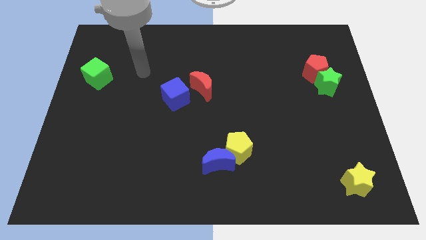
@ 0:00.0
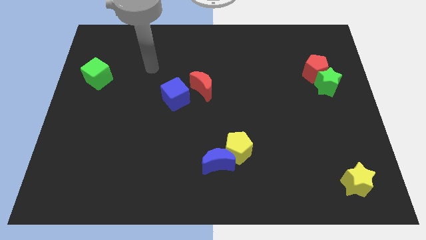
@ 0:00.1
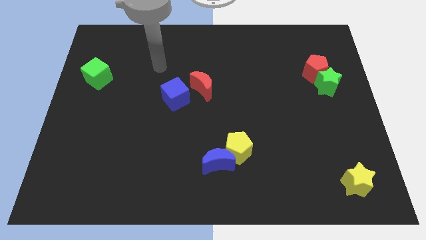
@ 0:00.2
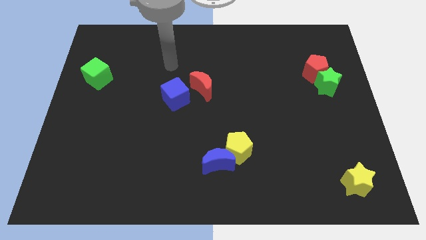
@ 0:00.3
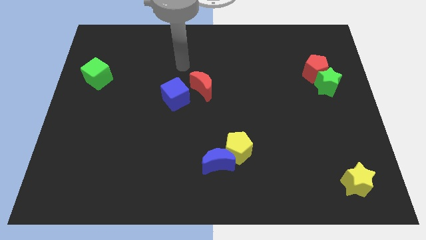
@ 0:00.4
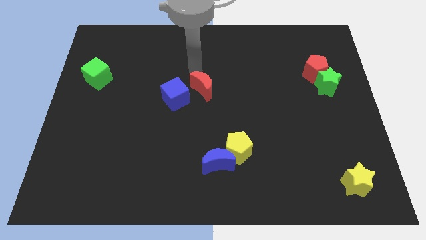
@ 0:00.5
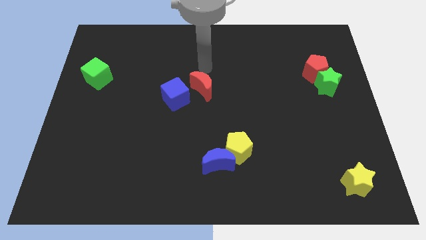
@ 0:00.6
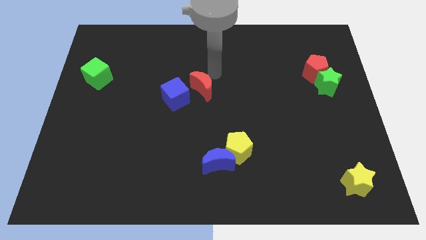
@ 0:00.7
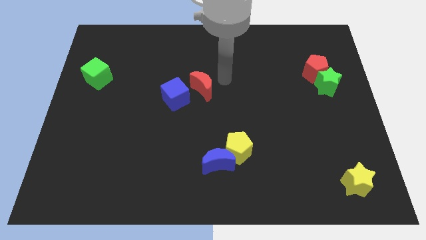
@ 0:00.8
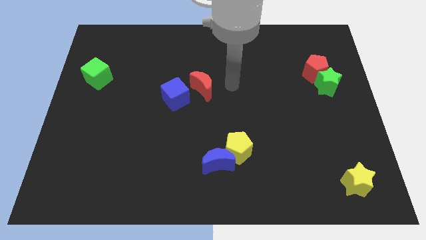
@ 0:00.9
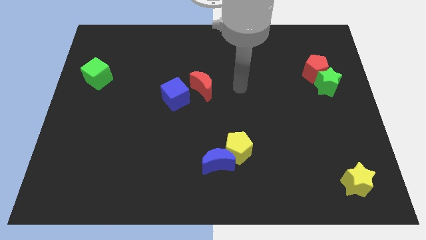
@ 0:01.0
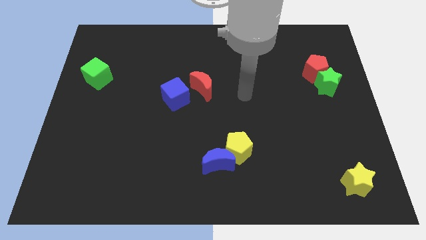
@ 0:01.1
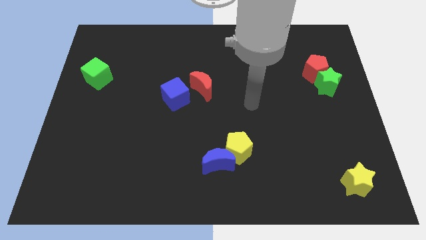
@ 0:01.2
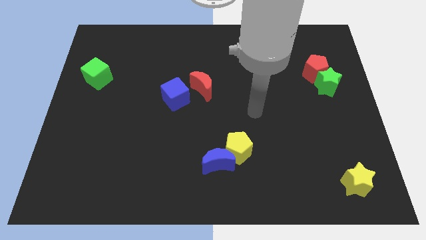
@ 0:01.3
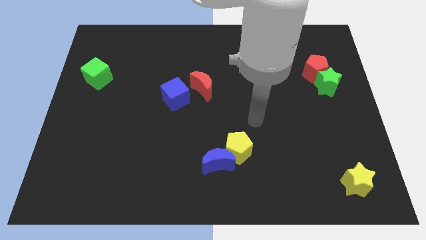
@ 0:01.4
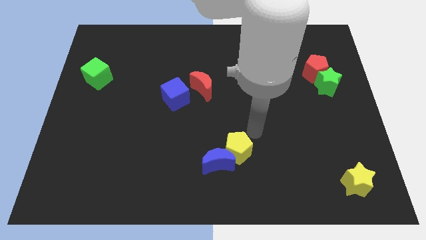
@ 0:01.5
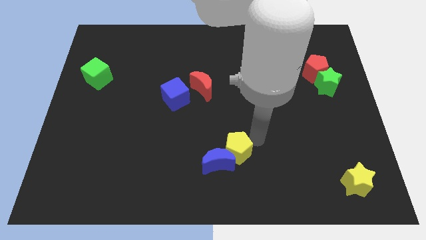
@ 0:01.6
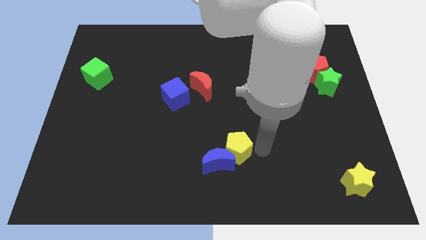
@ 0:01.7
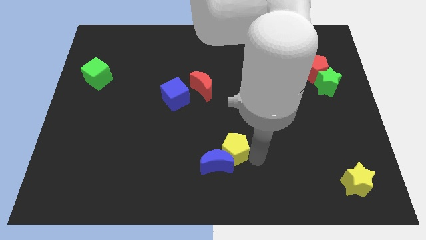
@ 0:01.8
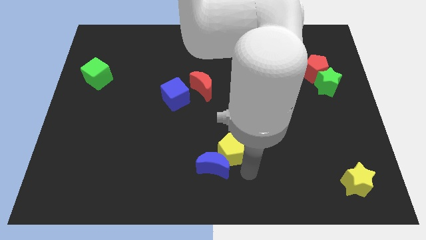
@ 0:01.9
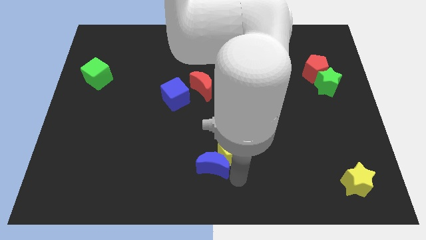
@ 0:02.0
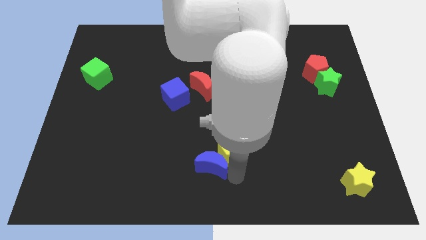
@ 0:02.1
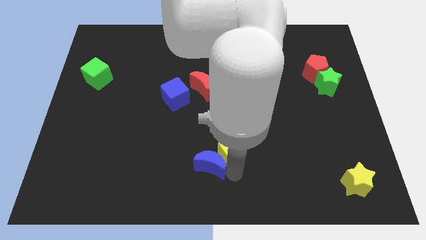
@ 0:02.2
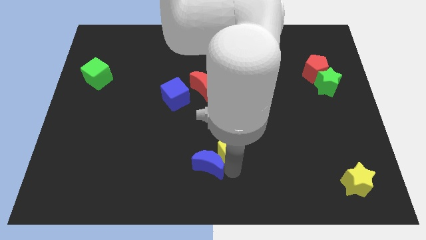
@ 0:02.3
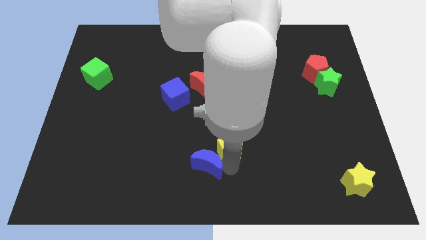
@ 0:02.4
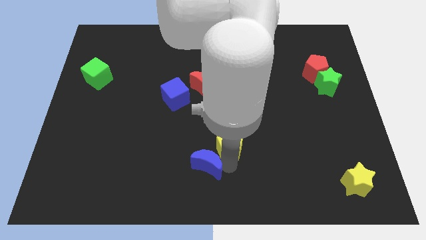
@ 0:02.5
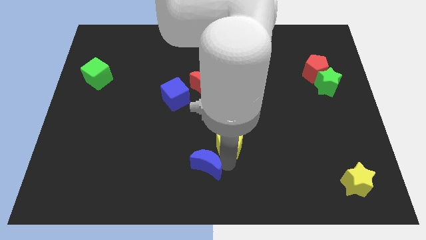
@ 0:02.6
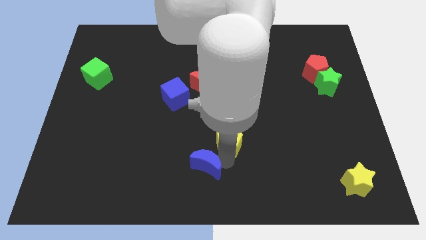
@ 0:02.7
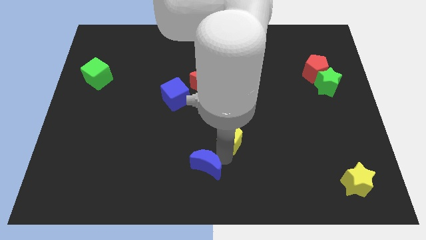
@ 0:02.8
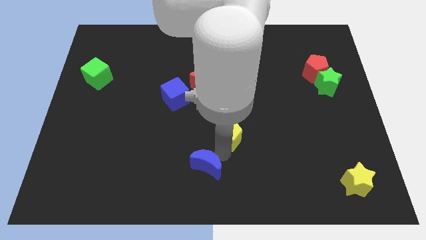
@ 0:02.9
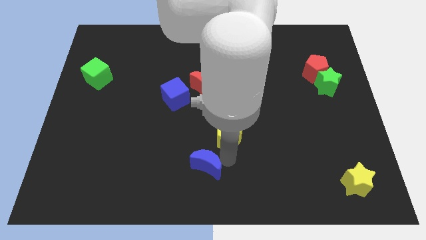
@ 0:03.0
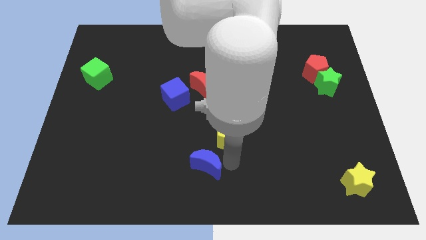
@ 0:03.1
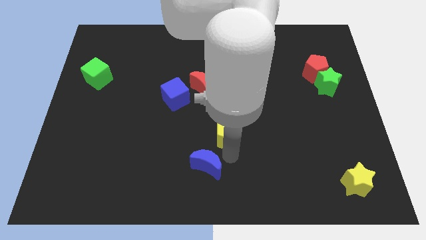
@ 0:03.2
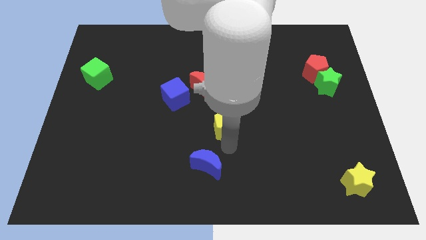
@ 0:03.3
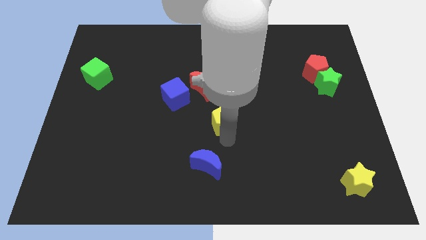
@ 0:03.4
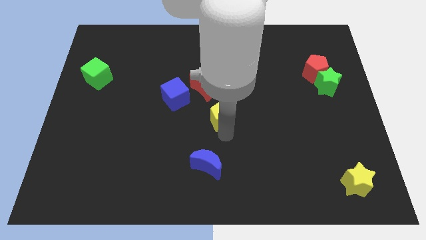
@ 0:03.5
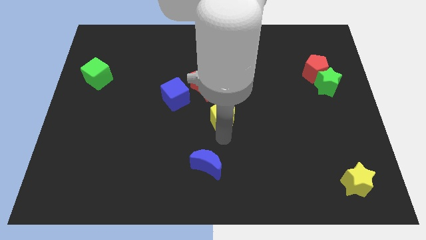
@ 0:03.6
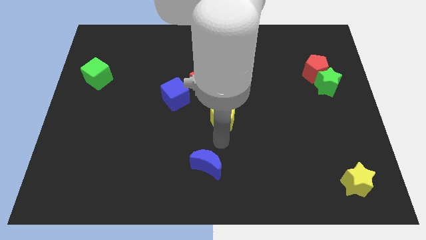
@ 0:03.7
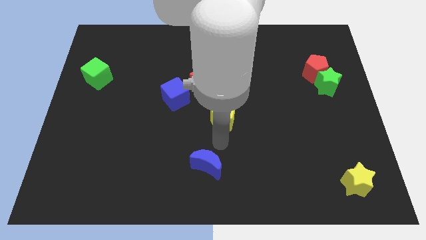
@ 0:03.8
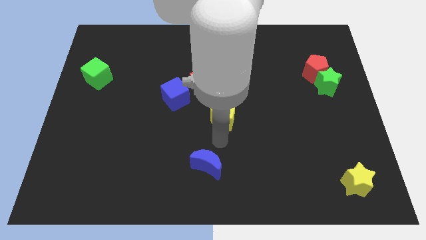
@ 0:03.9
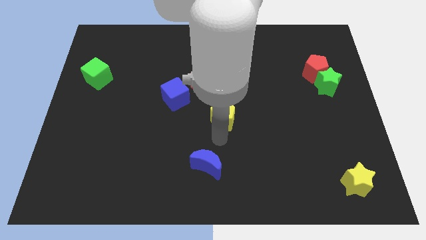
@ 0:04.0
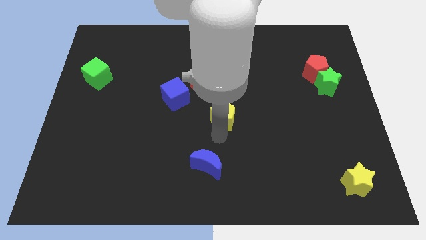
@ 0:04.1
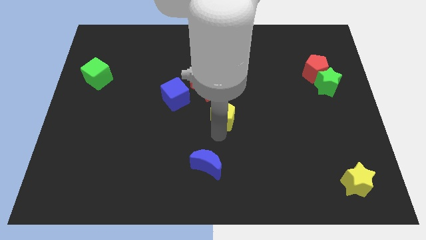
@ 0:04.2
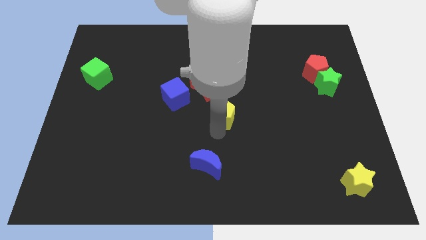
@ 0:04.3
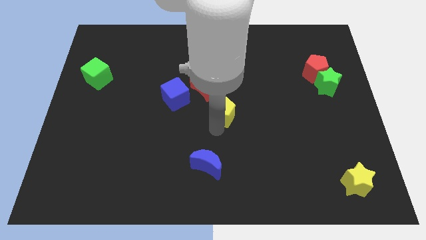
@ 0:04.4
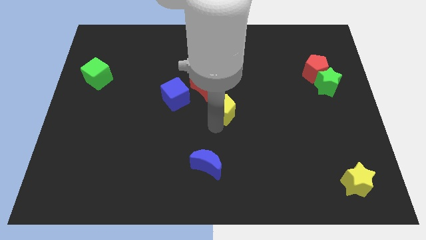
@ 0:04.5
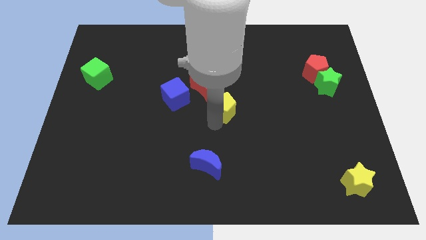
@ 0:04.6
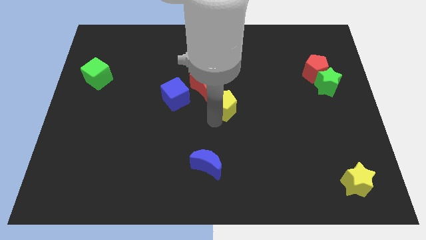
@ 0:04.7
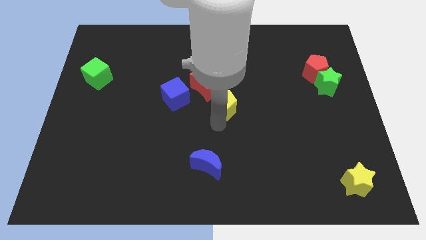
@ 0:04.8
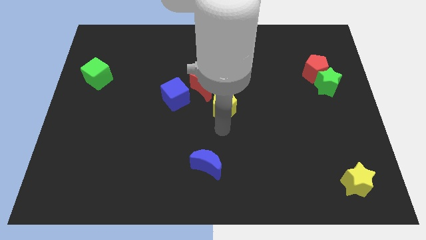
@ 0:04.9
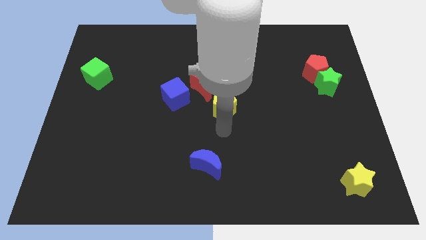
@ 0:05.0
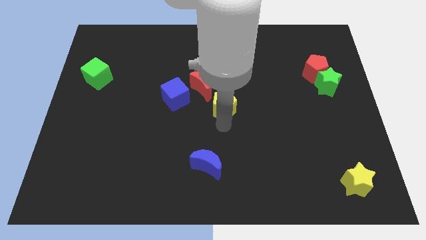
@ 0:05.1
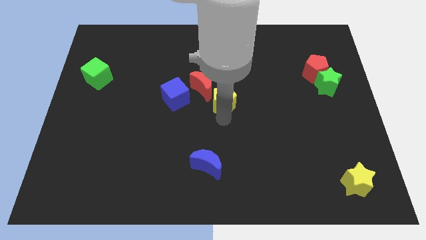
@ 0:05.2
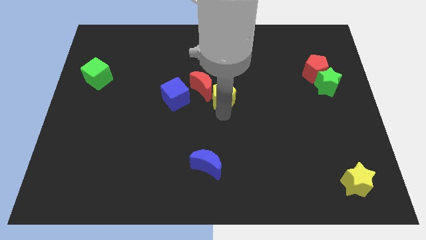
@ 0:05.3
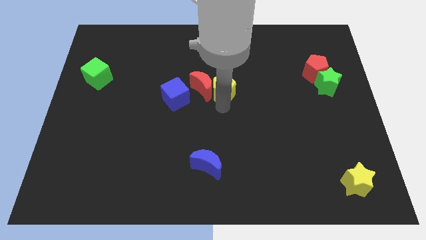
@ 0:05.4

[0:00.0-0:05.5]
put the yellow pentagon to the top right side of the red moon

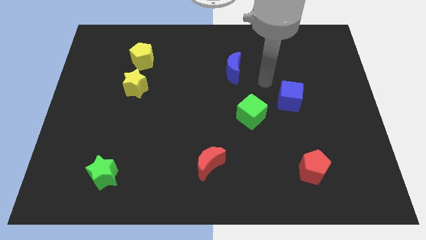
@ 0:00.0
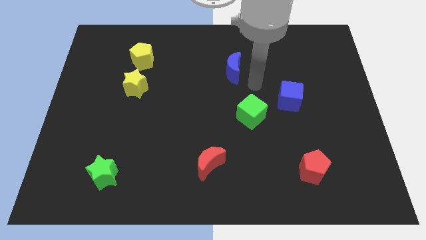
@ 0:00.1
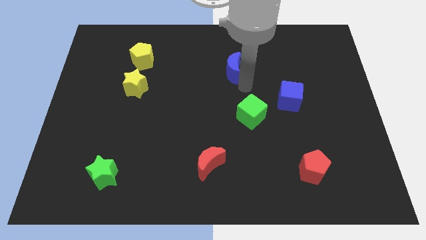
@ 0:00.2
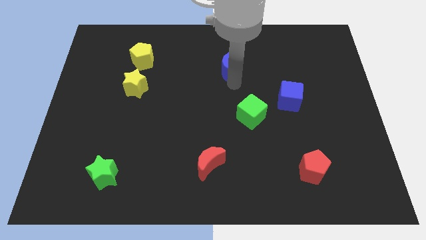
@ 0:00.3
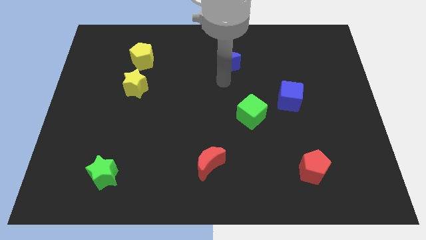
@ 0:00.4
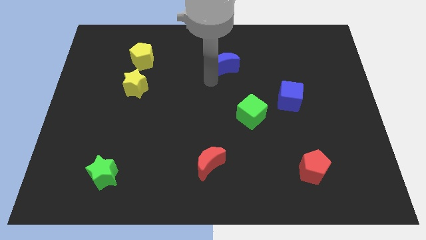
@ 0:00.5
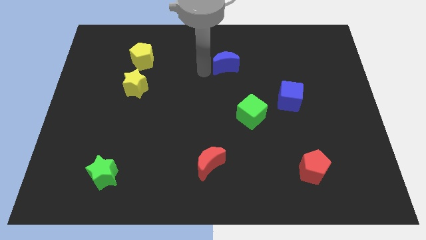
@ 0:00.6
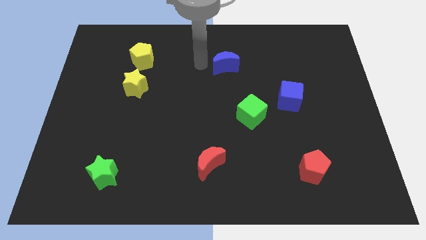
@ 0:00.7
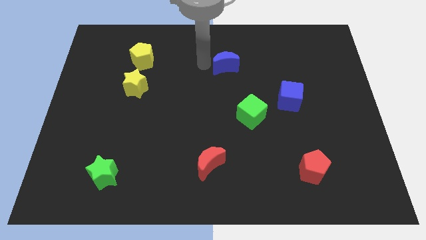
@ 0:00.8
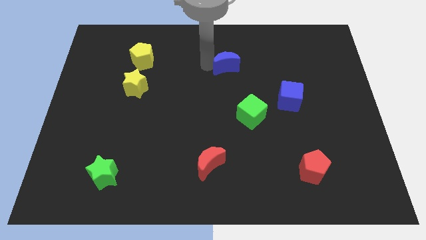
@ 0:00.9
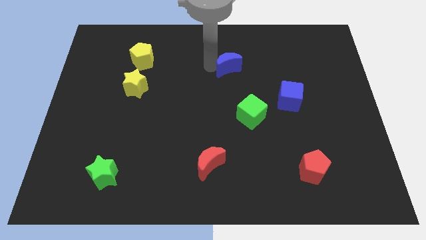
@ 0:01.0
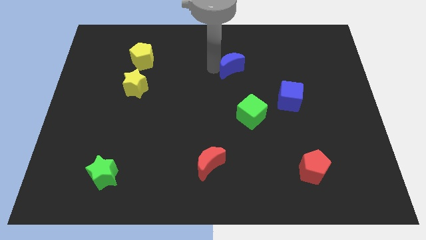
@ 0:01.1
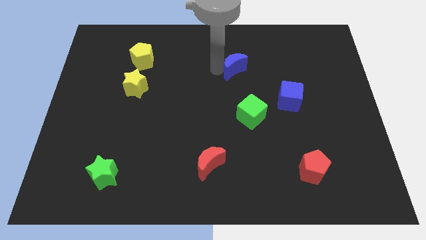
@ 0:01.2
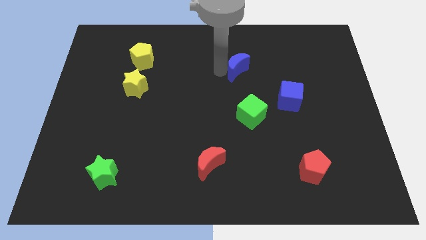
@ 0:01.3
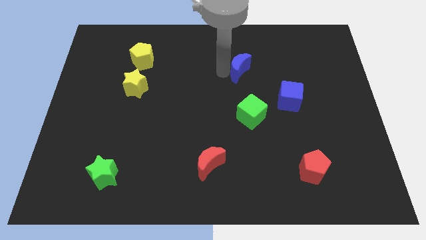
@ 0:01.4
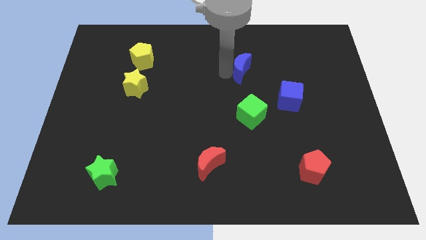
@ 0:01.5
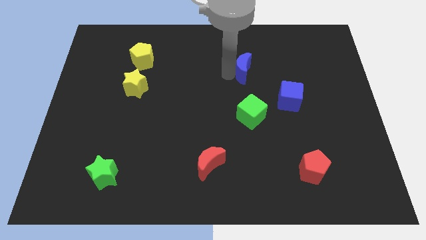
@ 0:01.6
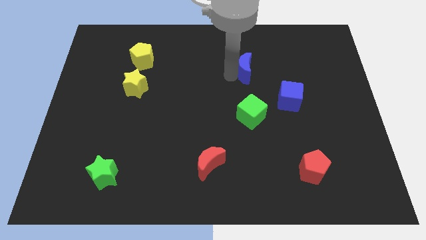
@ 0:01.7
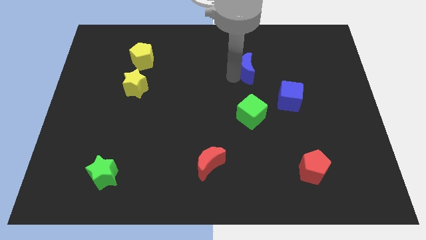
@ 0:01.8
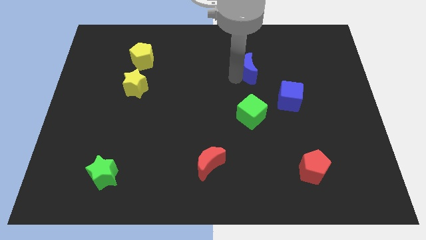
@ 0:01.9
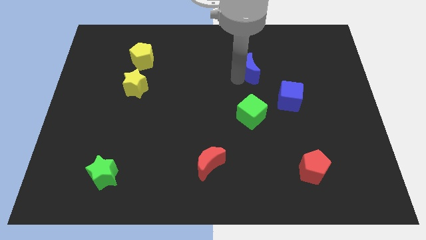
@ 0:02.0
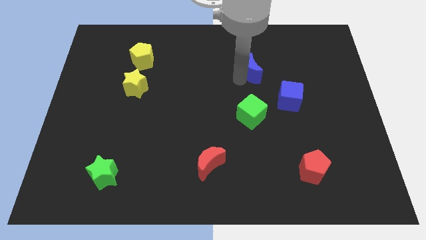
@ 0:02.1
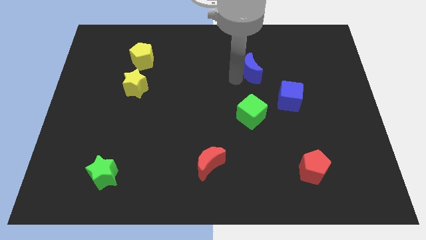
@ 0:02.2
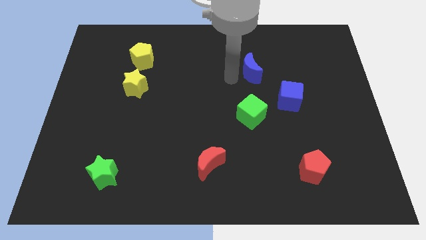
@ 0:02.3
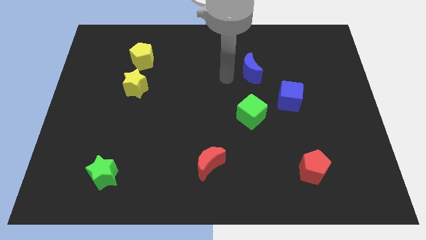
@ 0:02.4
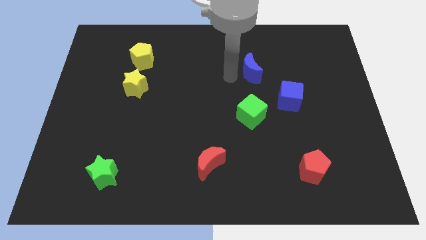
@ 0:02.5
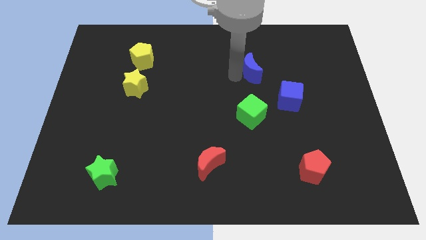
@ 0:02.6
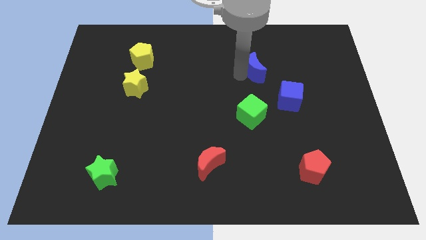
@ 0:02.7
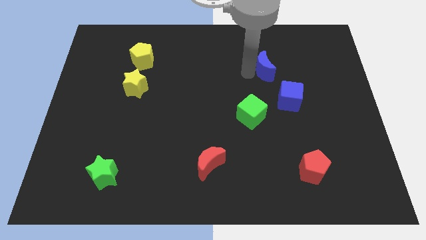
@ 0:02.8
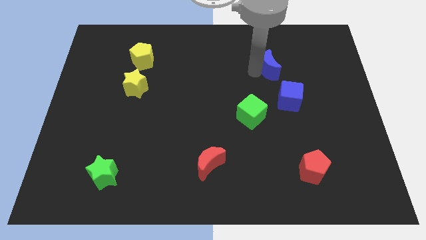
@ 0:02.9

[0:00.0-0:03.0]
slide the blue moon to the top of the blue cube
